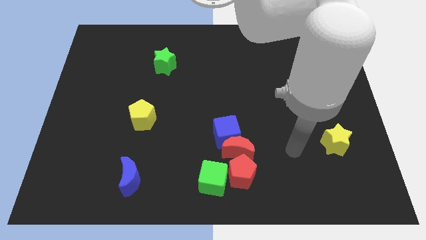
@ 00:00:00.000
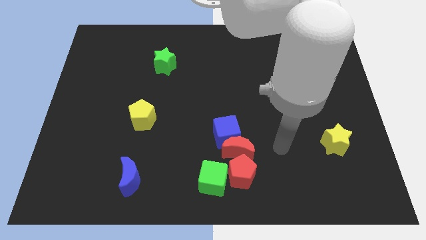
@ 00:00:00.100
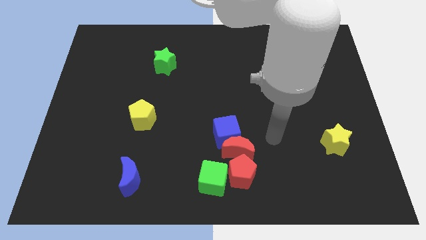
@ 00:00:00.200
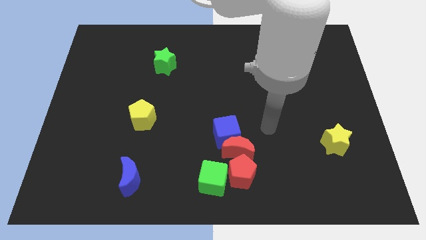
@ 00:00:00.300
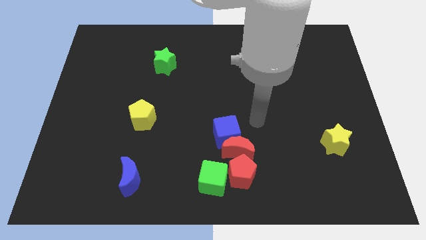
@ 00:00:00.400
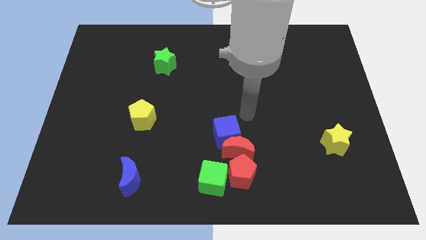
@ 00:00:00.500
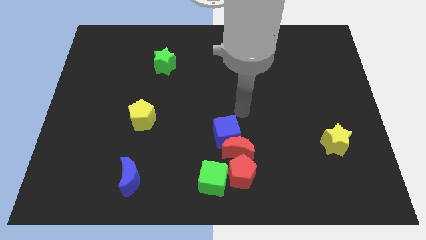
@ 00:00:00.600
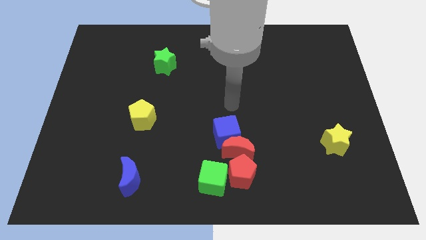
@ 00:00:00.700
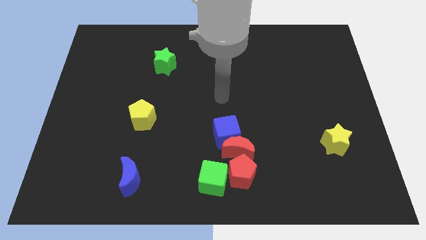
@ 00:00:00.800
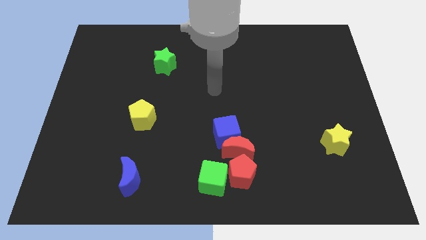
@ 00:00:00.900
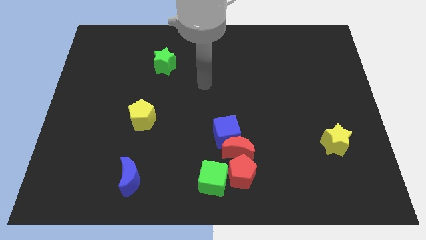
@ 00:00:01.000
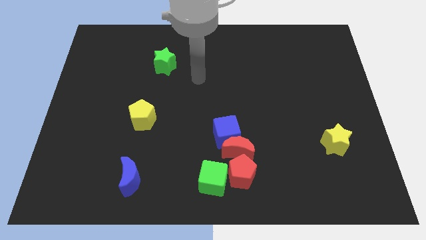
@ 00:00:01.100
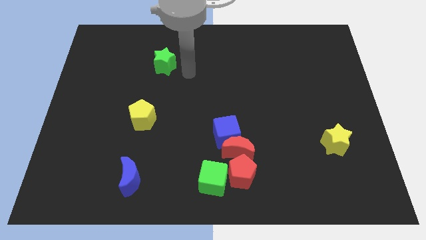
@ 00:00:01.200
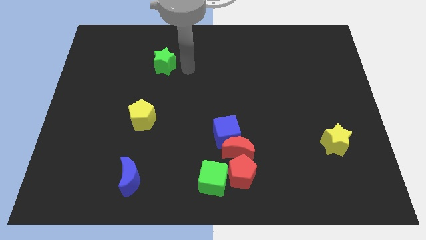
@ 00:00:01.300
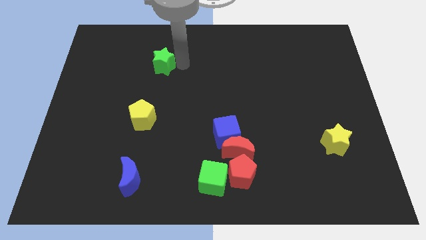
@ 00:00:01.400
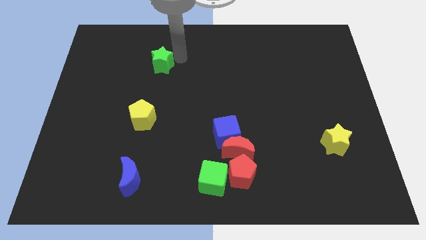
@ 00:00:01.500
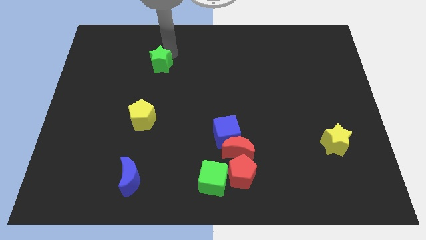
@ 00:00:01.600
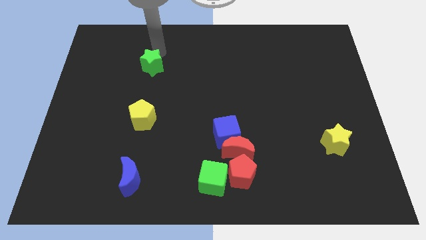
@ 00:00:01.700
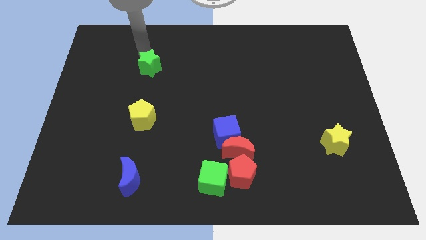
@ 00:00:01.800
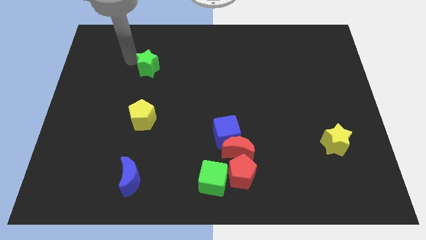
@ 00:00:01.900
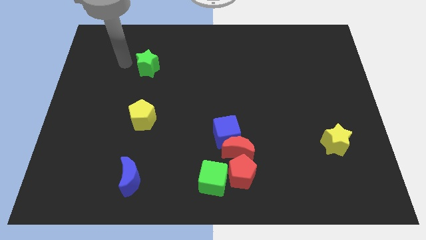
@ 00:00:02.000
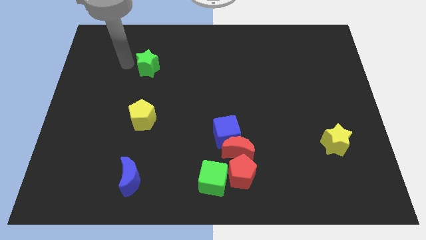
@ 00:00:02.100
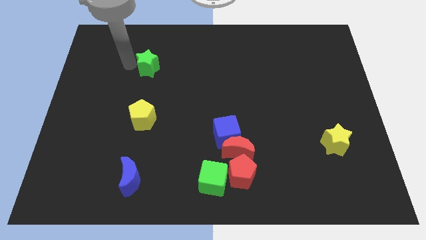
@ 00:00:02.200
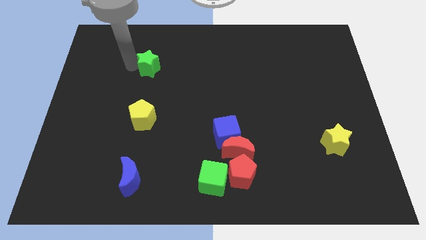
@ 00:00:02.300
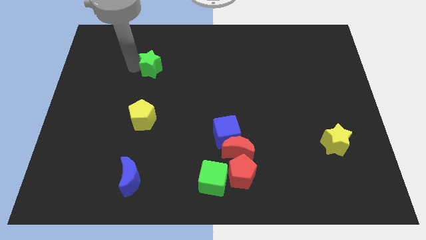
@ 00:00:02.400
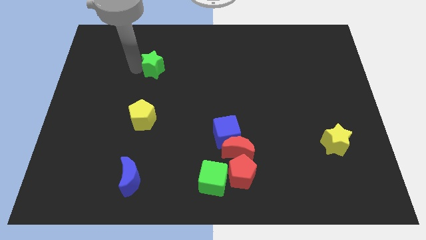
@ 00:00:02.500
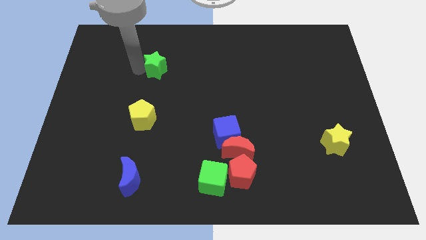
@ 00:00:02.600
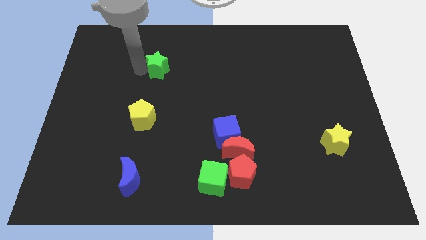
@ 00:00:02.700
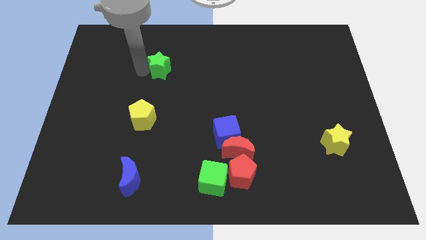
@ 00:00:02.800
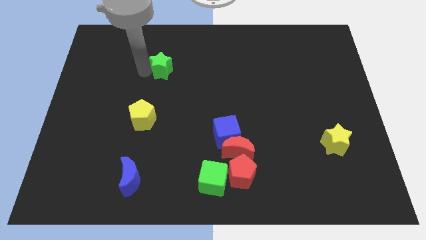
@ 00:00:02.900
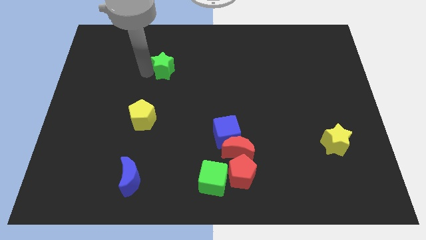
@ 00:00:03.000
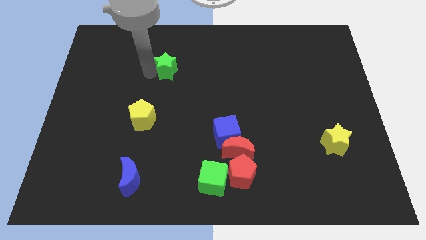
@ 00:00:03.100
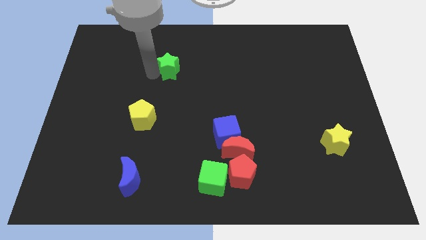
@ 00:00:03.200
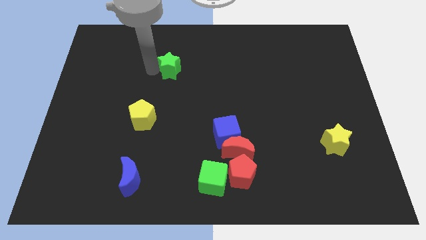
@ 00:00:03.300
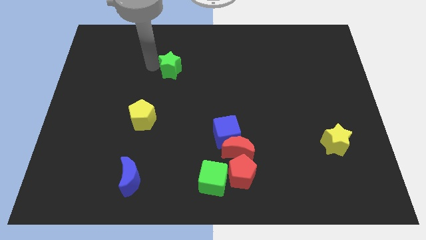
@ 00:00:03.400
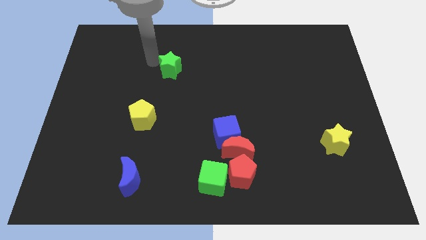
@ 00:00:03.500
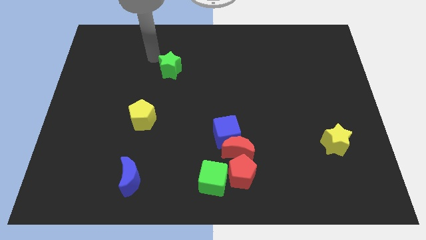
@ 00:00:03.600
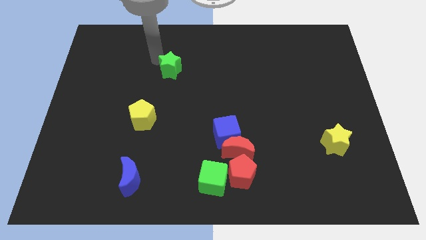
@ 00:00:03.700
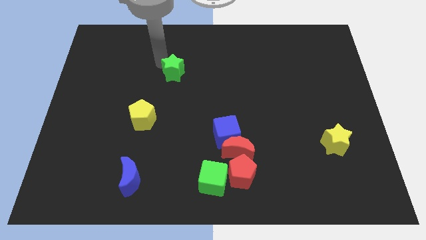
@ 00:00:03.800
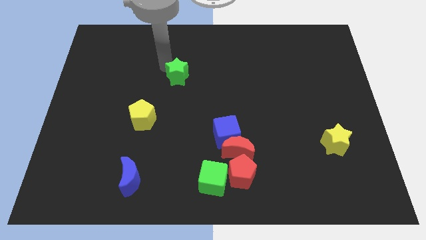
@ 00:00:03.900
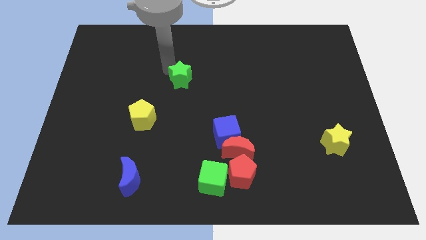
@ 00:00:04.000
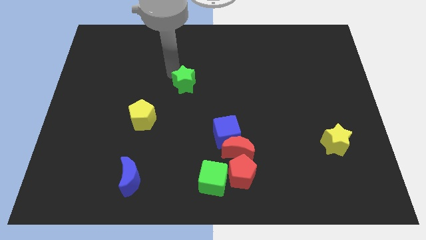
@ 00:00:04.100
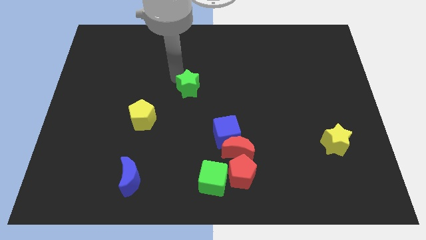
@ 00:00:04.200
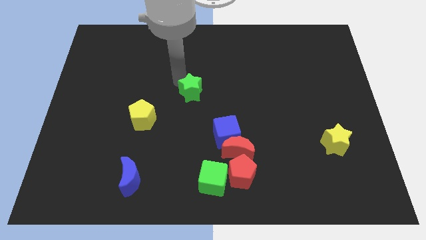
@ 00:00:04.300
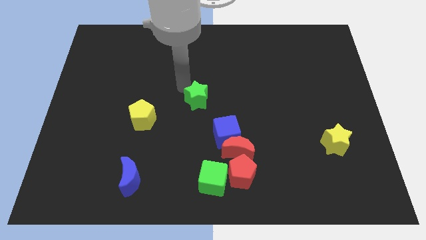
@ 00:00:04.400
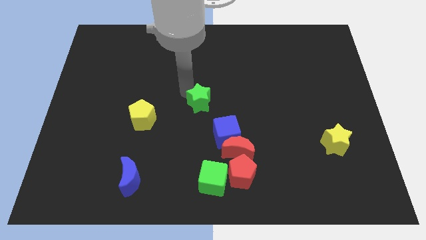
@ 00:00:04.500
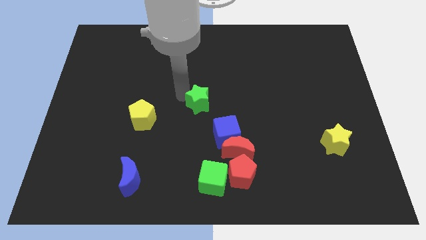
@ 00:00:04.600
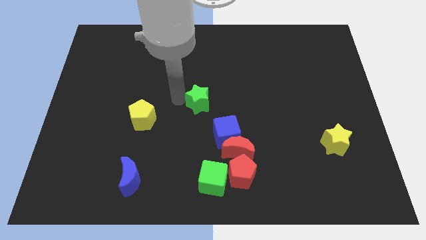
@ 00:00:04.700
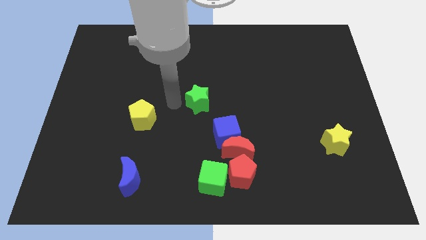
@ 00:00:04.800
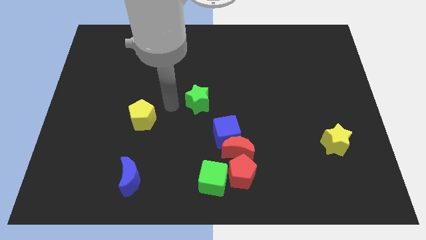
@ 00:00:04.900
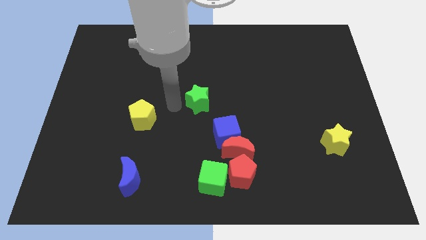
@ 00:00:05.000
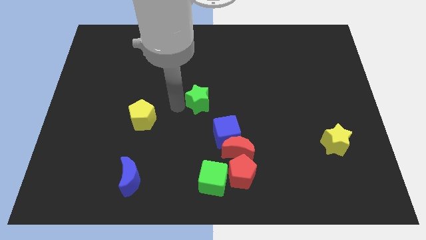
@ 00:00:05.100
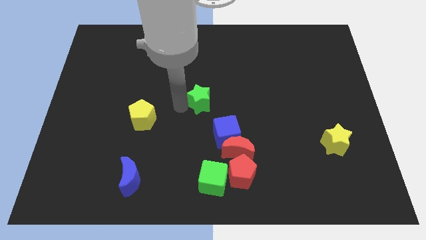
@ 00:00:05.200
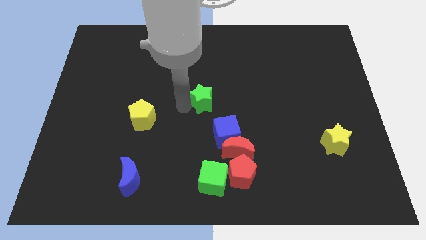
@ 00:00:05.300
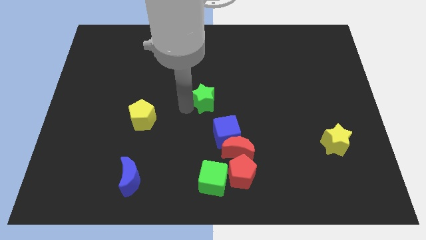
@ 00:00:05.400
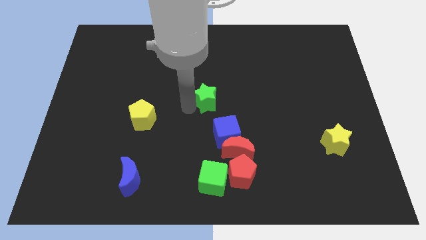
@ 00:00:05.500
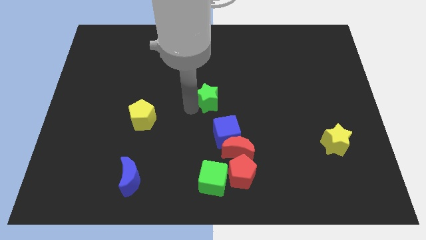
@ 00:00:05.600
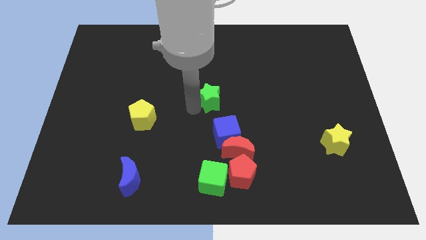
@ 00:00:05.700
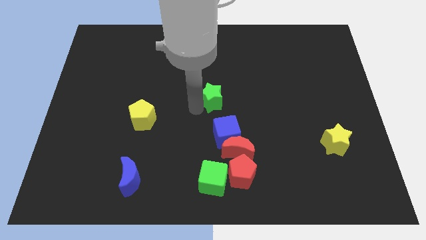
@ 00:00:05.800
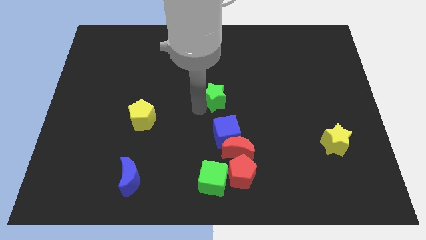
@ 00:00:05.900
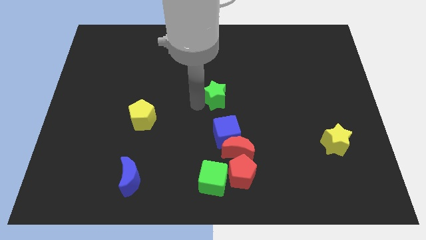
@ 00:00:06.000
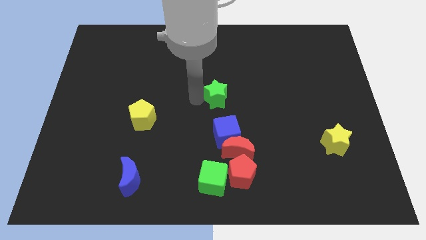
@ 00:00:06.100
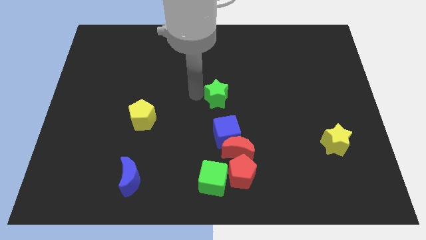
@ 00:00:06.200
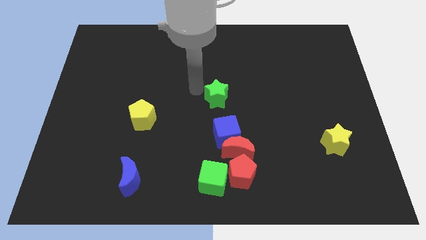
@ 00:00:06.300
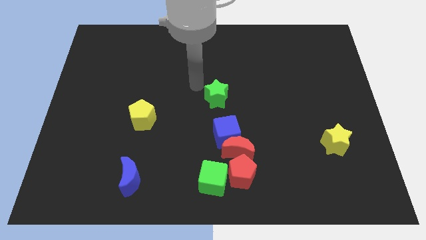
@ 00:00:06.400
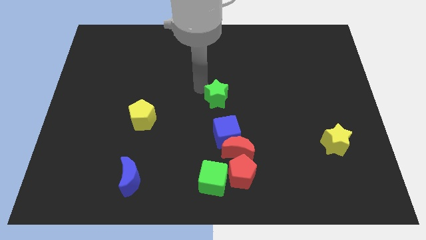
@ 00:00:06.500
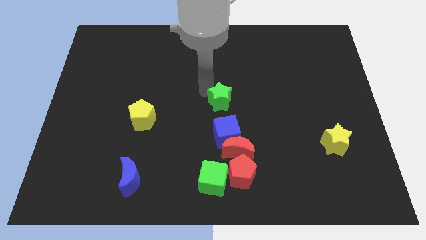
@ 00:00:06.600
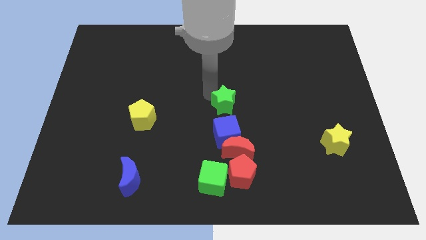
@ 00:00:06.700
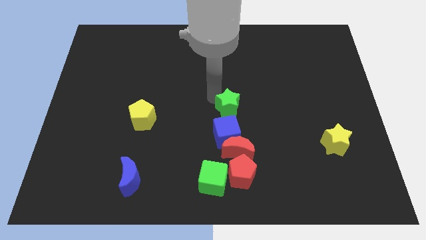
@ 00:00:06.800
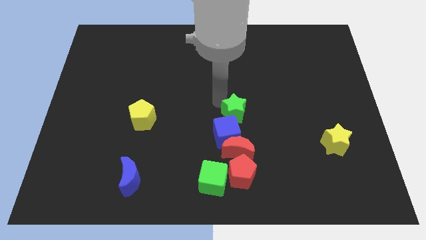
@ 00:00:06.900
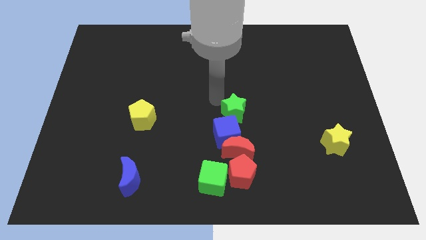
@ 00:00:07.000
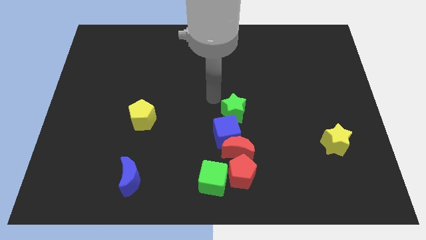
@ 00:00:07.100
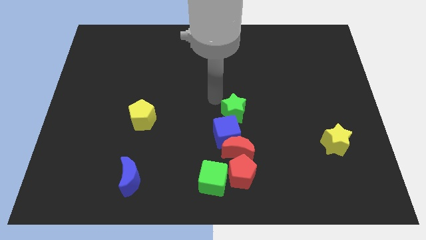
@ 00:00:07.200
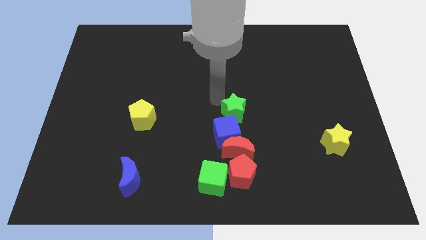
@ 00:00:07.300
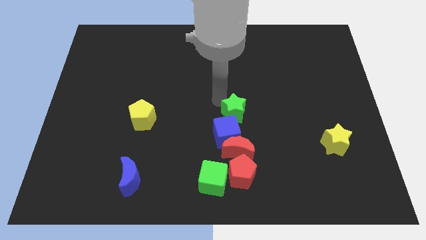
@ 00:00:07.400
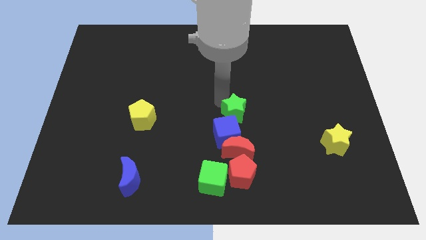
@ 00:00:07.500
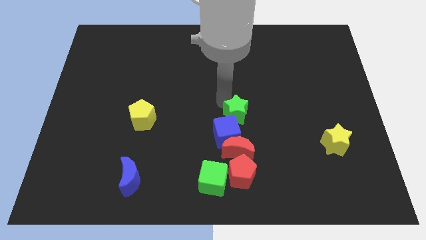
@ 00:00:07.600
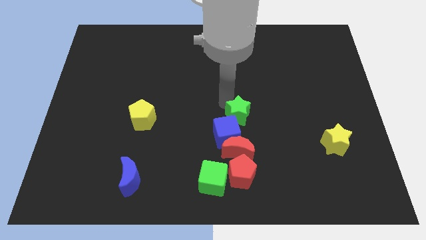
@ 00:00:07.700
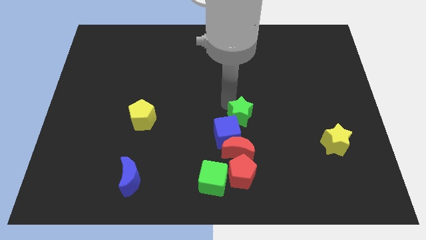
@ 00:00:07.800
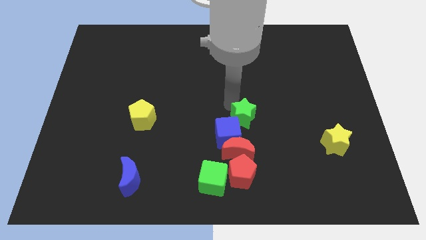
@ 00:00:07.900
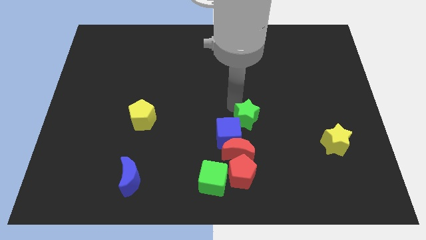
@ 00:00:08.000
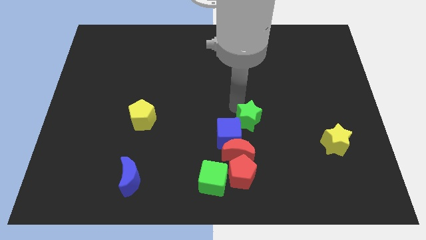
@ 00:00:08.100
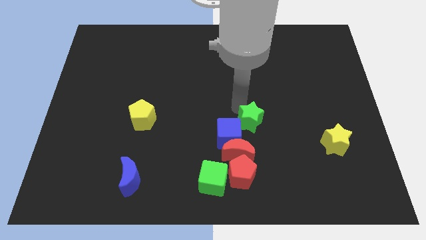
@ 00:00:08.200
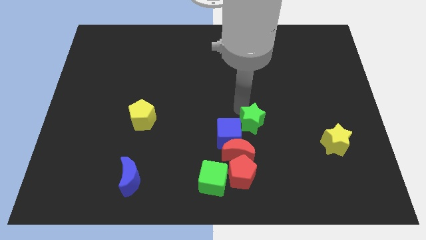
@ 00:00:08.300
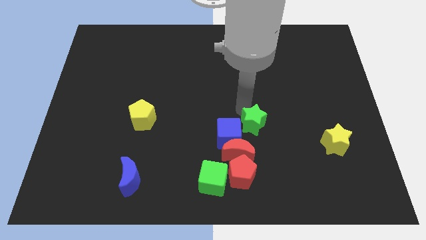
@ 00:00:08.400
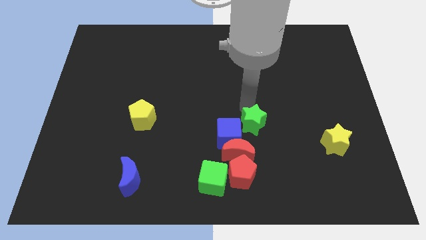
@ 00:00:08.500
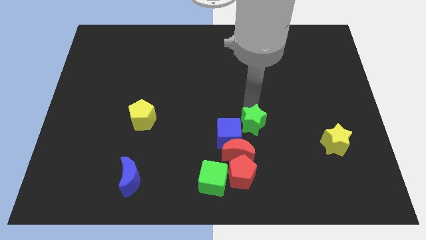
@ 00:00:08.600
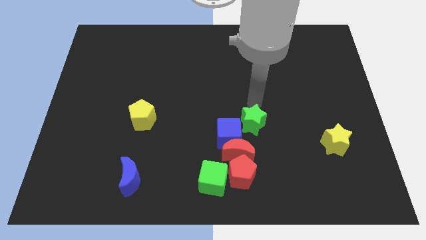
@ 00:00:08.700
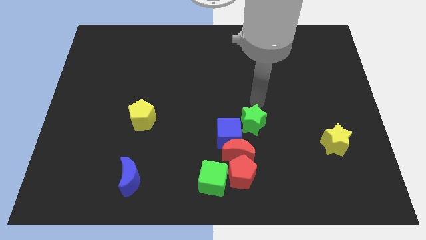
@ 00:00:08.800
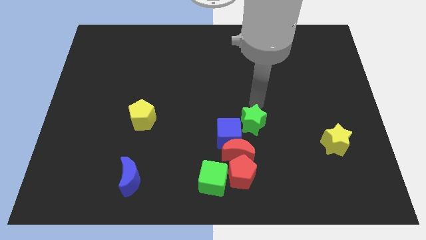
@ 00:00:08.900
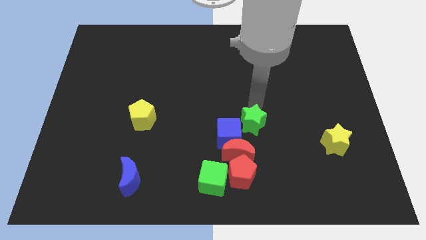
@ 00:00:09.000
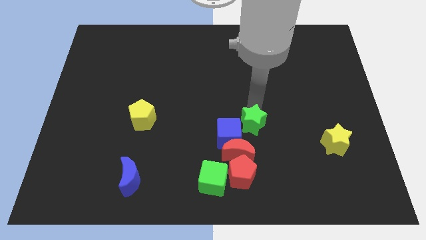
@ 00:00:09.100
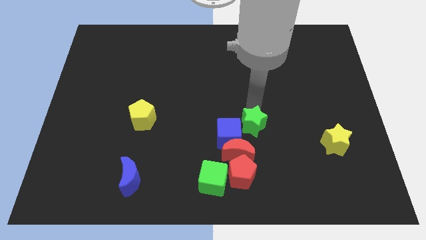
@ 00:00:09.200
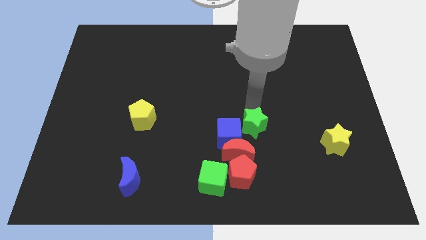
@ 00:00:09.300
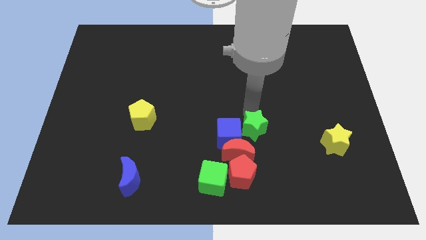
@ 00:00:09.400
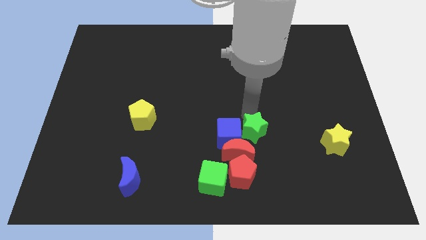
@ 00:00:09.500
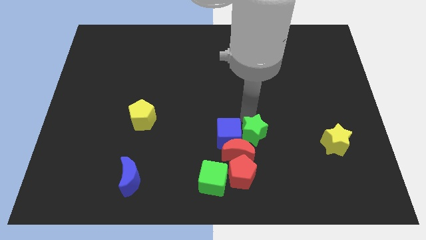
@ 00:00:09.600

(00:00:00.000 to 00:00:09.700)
push the green star close to the red moon
